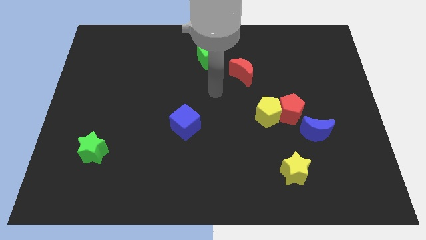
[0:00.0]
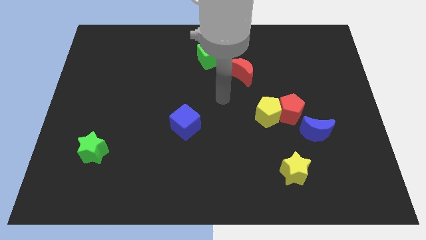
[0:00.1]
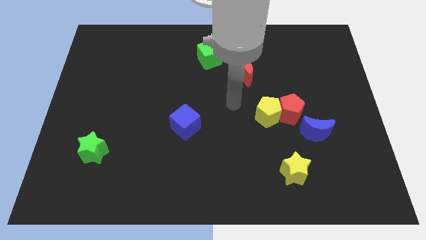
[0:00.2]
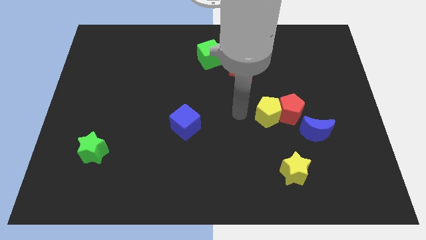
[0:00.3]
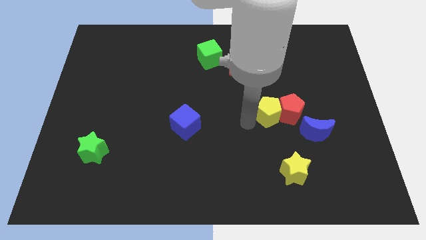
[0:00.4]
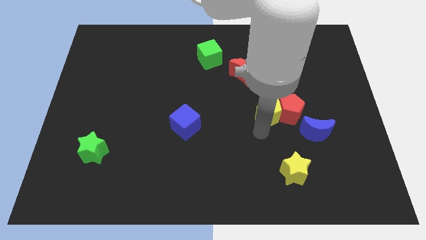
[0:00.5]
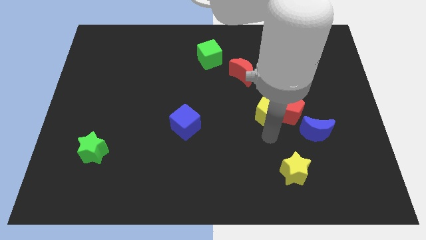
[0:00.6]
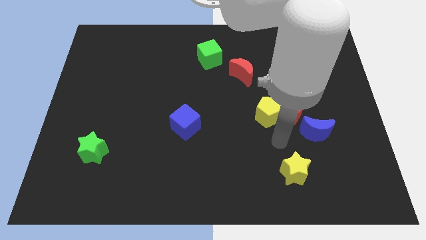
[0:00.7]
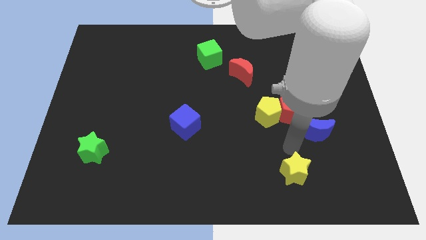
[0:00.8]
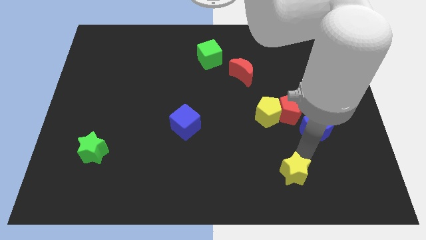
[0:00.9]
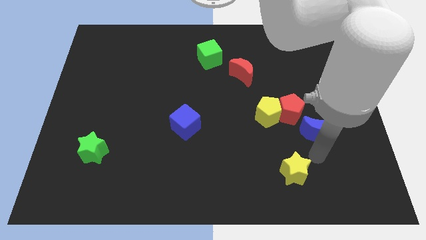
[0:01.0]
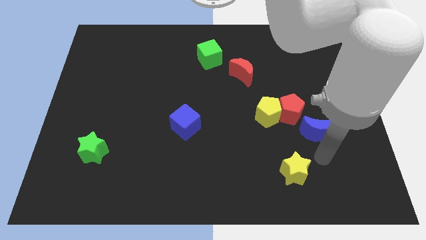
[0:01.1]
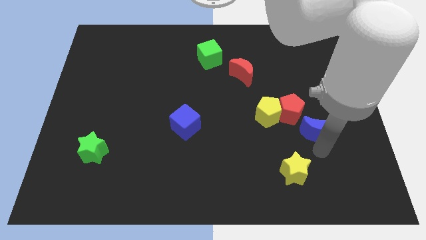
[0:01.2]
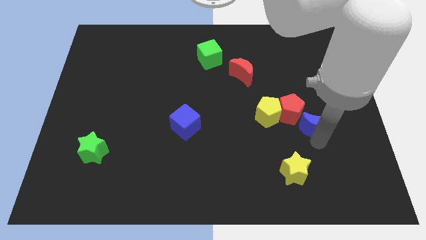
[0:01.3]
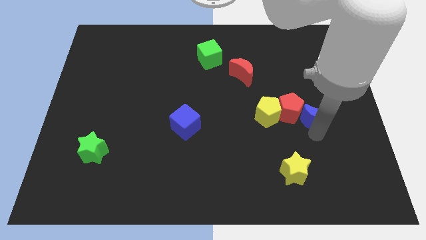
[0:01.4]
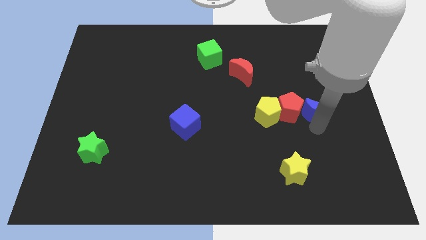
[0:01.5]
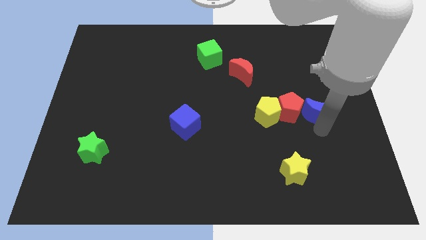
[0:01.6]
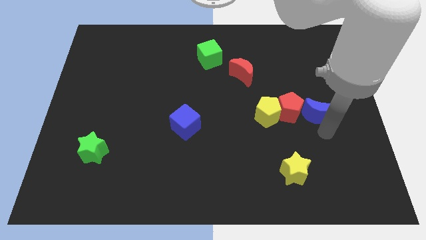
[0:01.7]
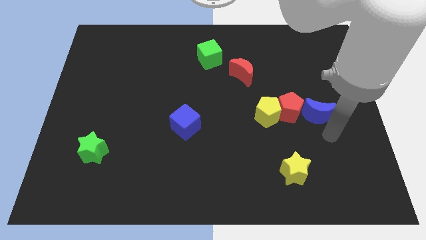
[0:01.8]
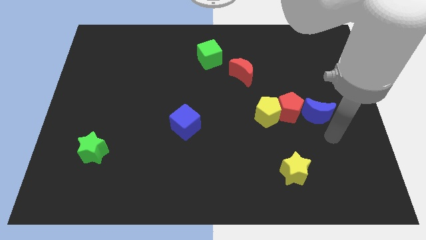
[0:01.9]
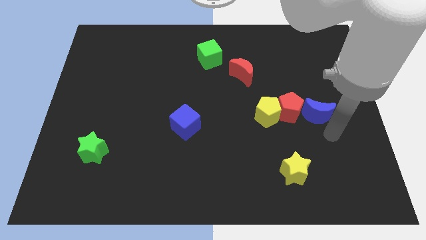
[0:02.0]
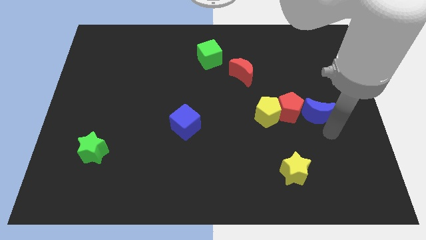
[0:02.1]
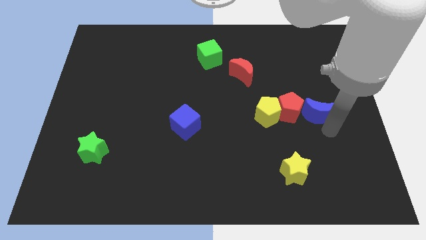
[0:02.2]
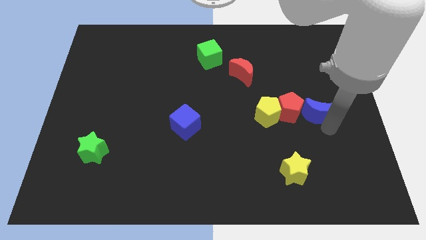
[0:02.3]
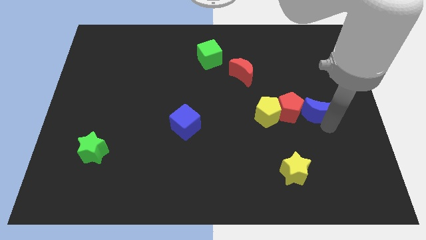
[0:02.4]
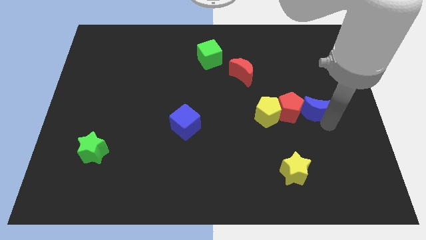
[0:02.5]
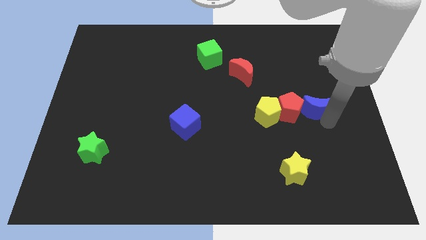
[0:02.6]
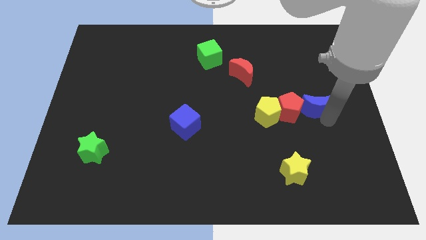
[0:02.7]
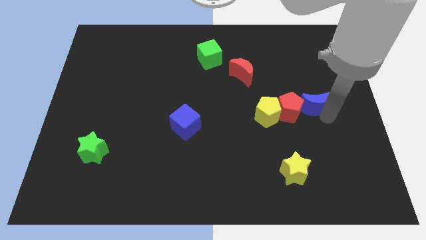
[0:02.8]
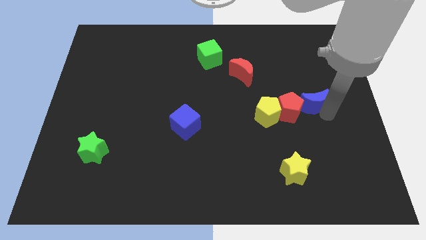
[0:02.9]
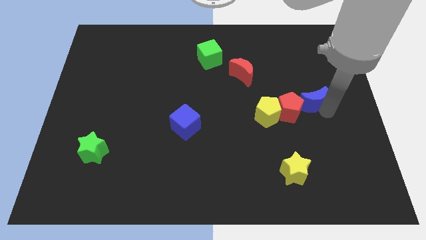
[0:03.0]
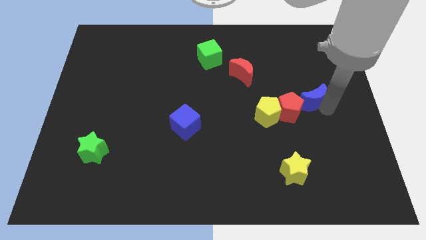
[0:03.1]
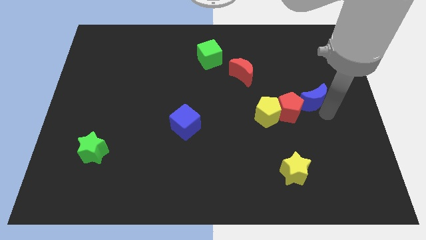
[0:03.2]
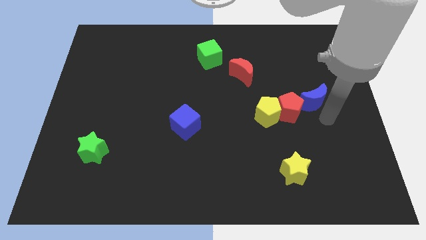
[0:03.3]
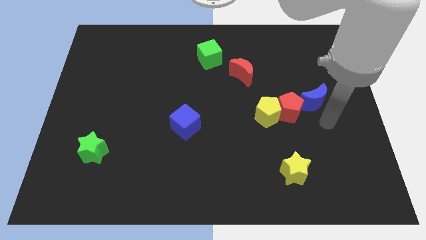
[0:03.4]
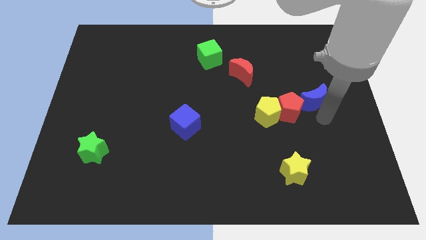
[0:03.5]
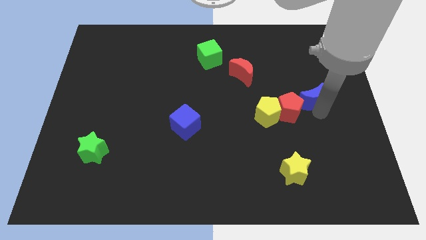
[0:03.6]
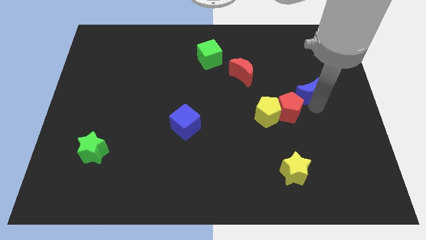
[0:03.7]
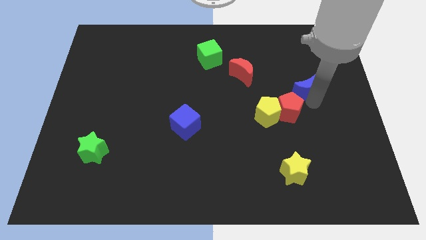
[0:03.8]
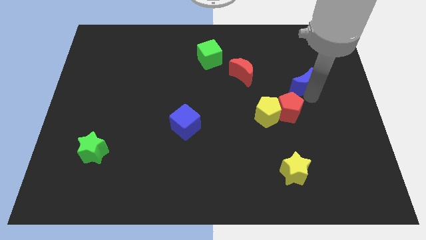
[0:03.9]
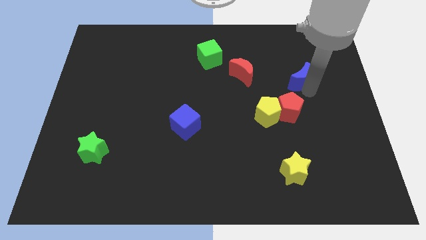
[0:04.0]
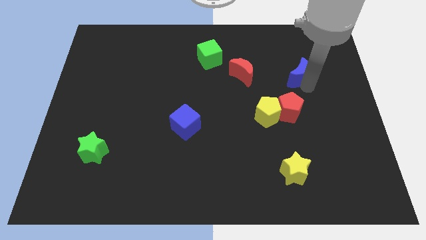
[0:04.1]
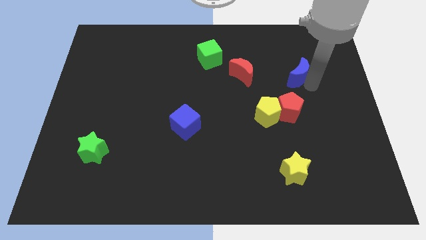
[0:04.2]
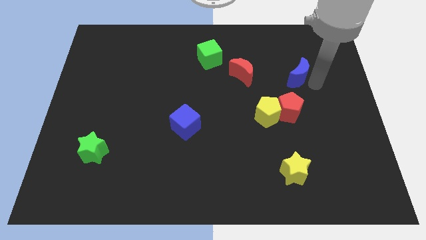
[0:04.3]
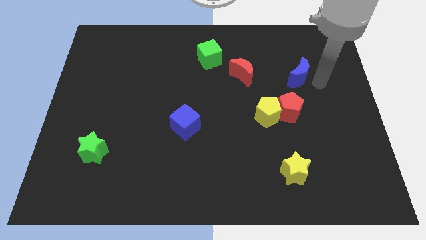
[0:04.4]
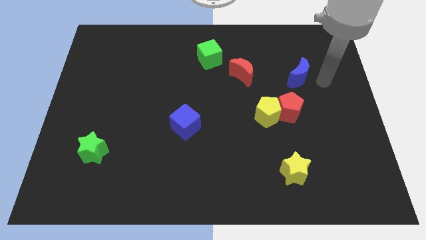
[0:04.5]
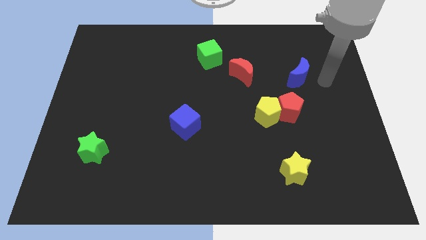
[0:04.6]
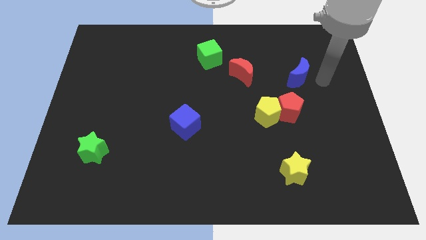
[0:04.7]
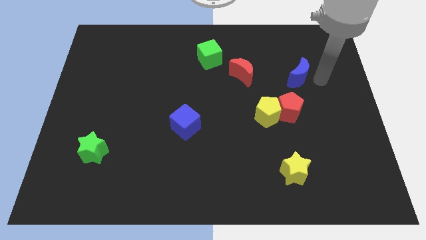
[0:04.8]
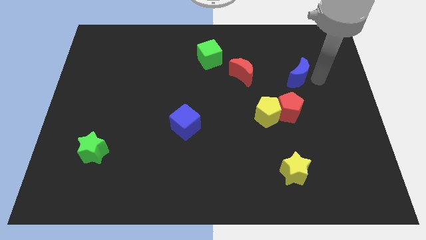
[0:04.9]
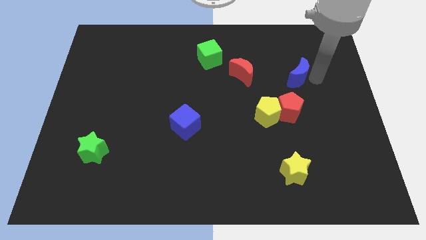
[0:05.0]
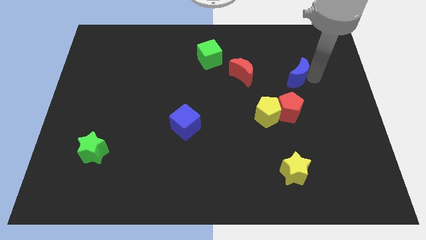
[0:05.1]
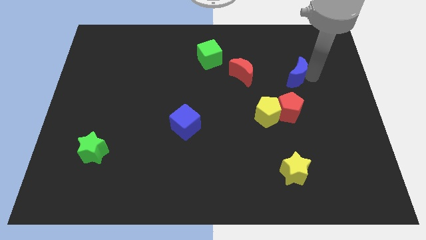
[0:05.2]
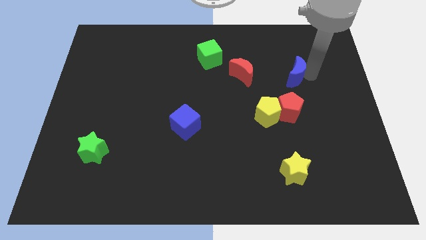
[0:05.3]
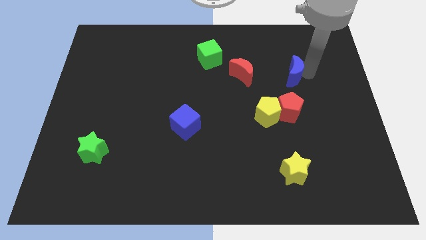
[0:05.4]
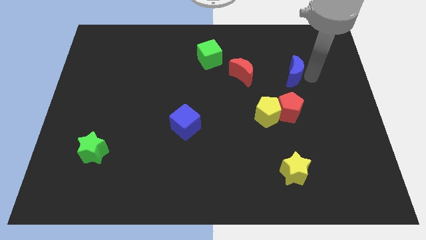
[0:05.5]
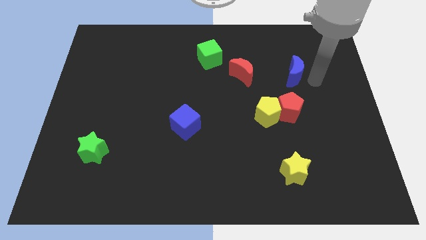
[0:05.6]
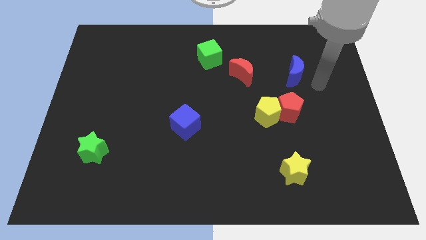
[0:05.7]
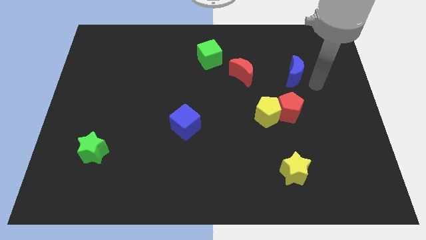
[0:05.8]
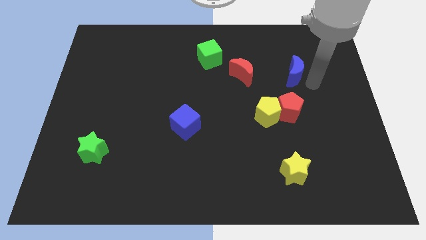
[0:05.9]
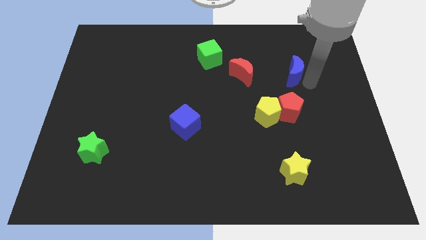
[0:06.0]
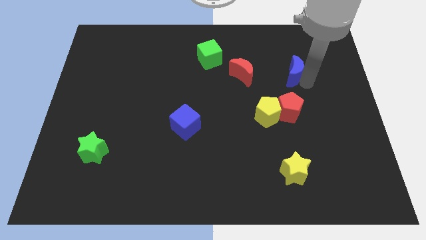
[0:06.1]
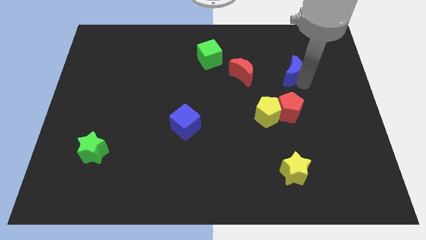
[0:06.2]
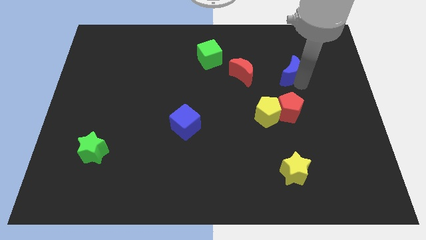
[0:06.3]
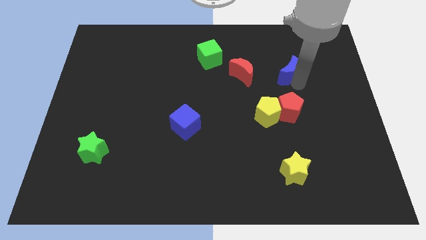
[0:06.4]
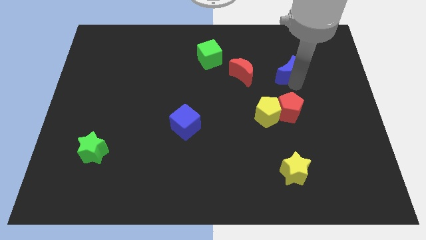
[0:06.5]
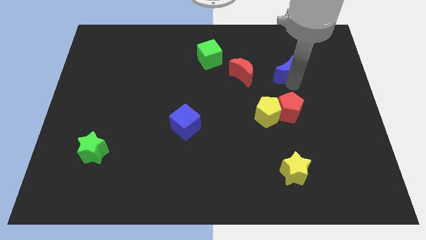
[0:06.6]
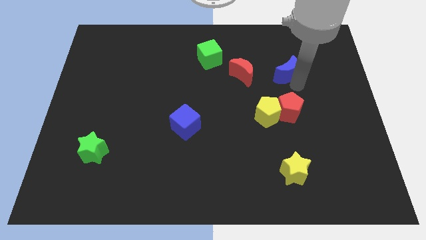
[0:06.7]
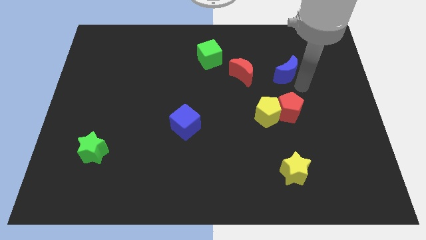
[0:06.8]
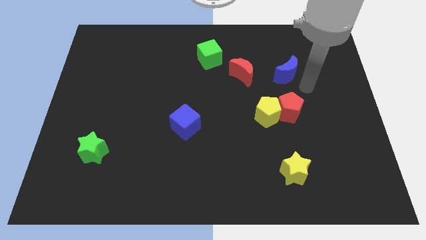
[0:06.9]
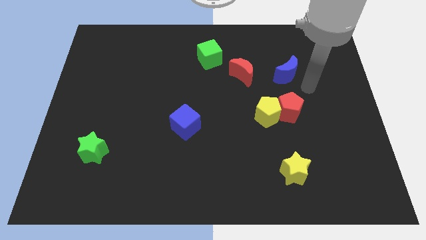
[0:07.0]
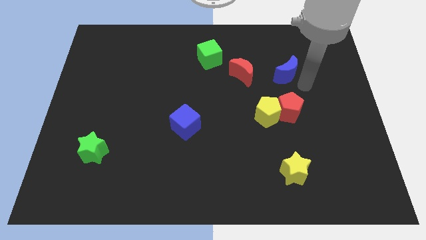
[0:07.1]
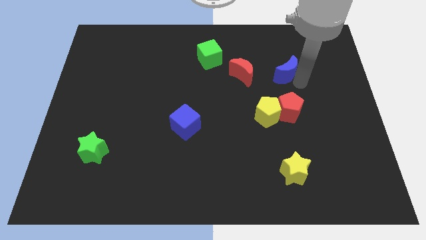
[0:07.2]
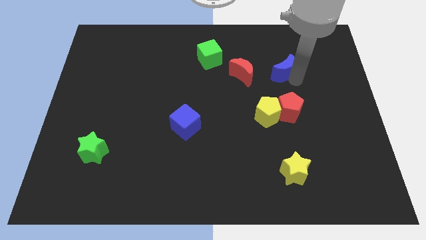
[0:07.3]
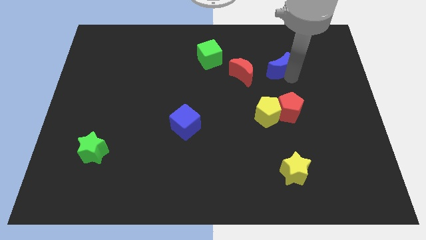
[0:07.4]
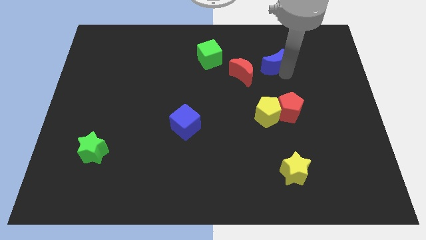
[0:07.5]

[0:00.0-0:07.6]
push the blue moon to the top right of the red moon
